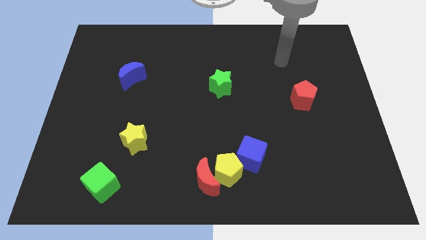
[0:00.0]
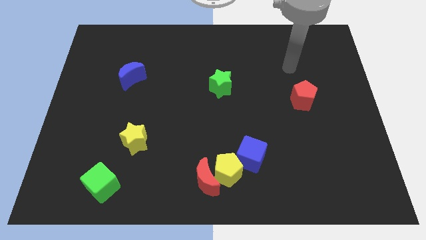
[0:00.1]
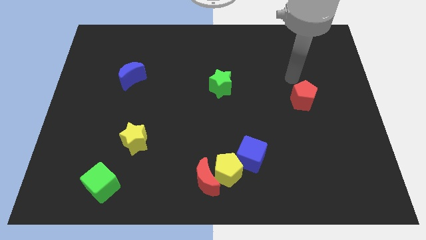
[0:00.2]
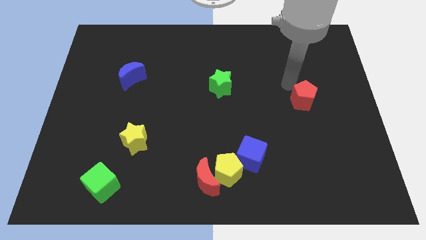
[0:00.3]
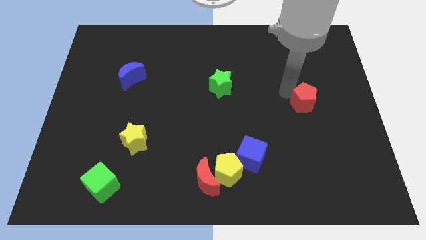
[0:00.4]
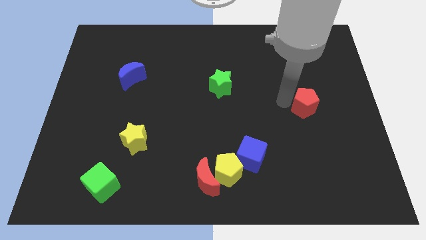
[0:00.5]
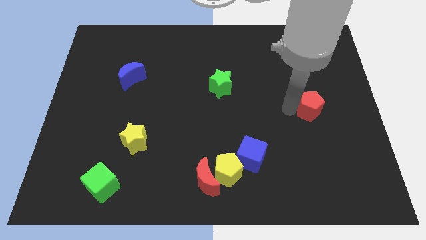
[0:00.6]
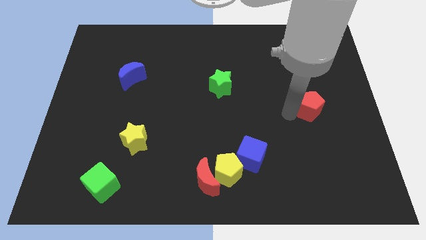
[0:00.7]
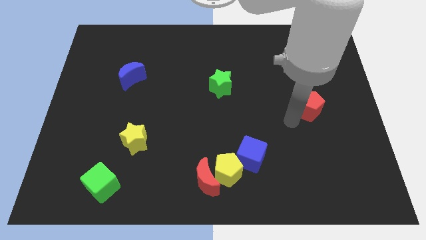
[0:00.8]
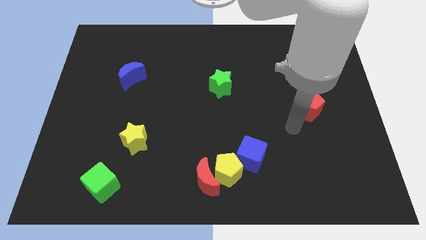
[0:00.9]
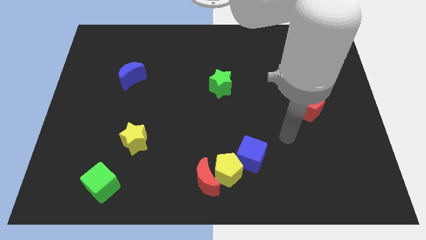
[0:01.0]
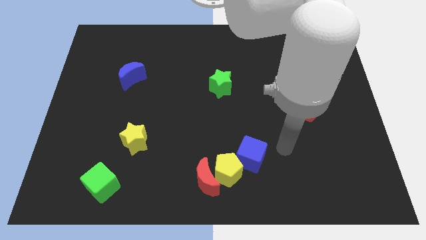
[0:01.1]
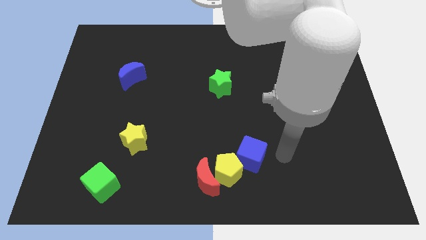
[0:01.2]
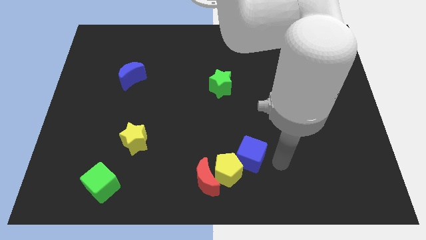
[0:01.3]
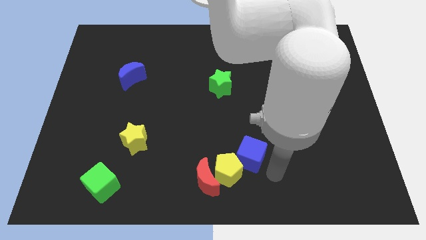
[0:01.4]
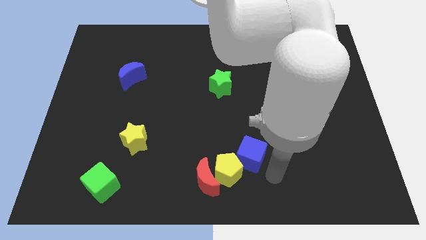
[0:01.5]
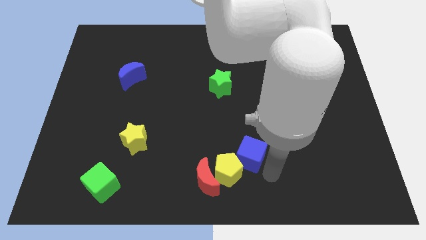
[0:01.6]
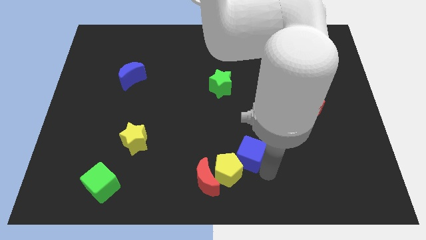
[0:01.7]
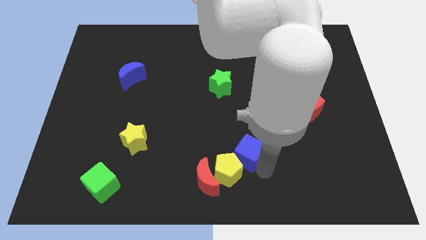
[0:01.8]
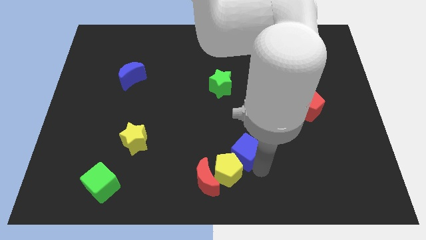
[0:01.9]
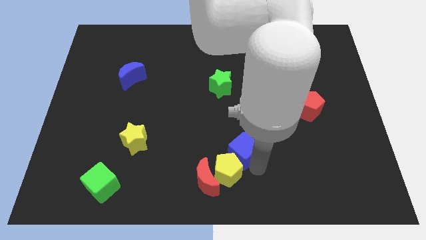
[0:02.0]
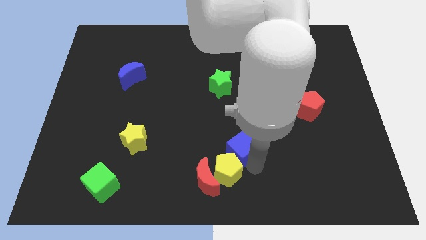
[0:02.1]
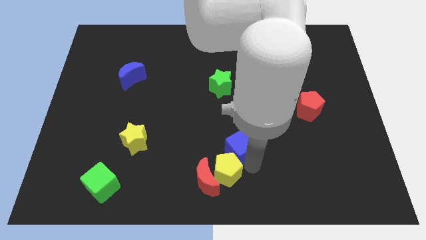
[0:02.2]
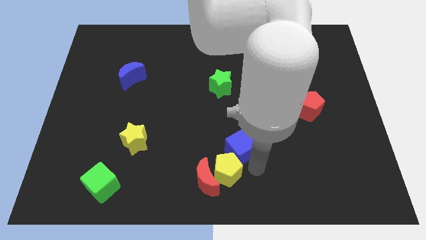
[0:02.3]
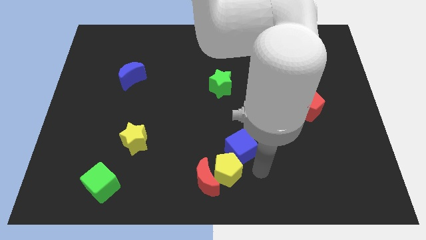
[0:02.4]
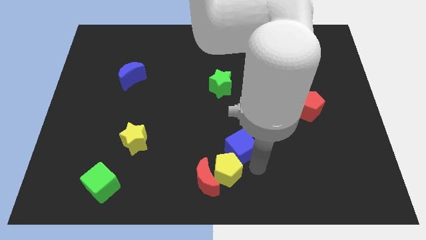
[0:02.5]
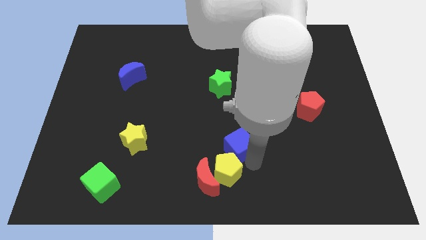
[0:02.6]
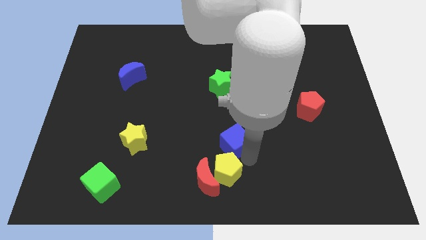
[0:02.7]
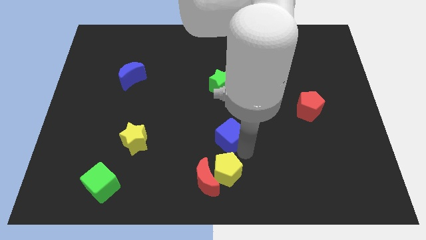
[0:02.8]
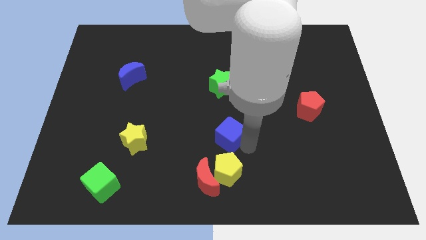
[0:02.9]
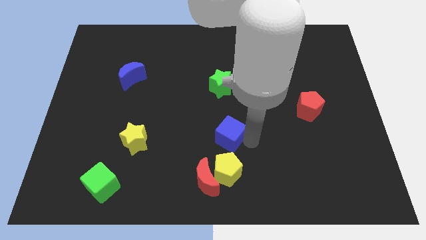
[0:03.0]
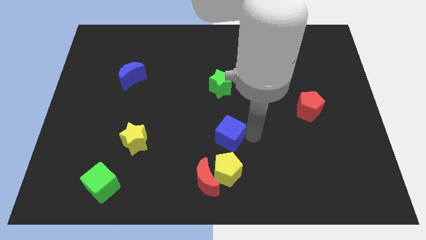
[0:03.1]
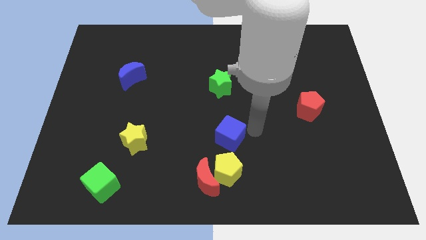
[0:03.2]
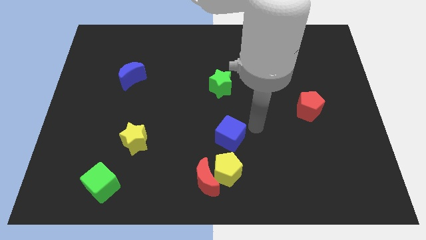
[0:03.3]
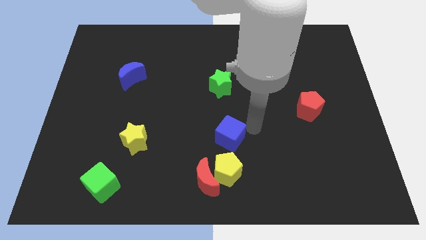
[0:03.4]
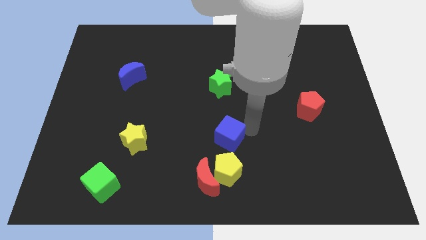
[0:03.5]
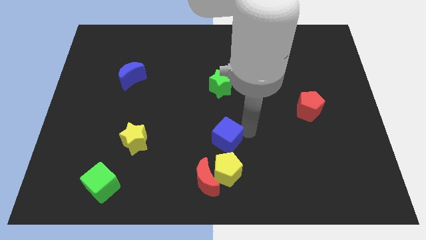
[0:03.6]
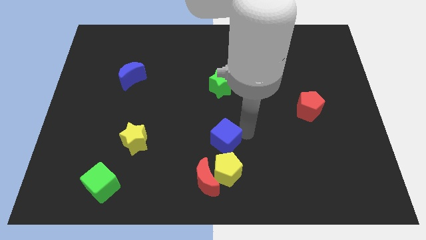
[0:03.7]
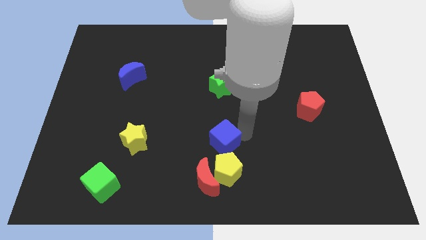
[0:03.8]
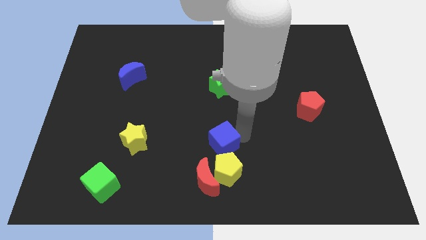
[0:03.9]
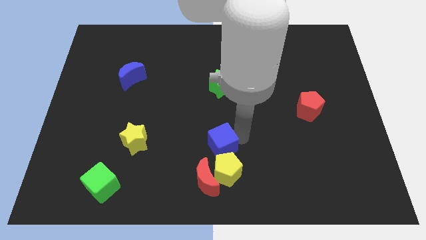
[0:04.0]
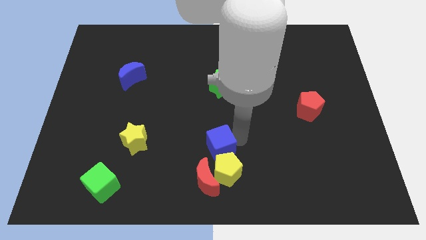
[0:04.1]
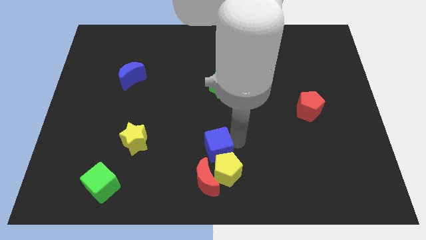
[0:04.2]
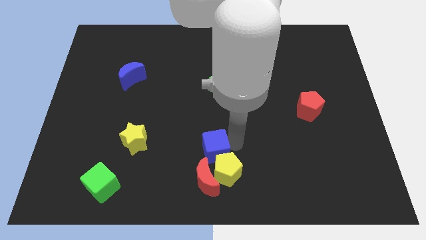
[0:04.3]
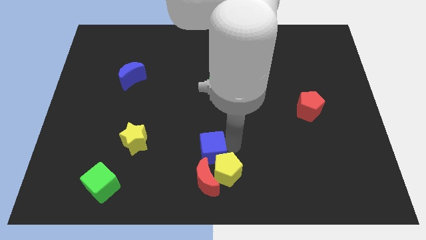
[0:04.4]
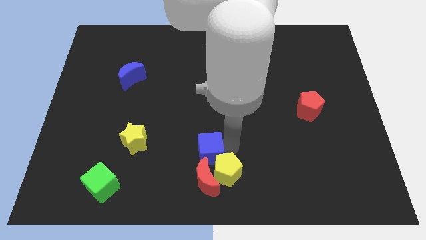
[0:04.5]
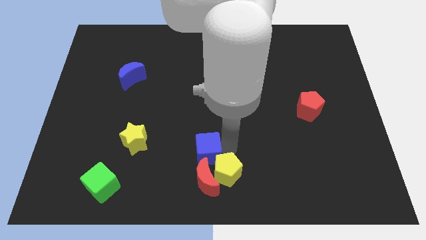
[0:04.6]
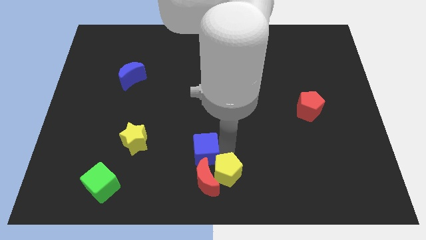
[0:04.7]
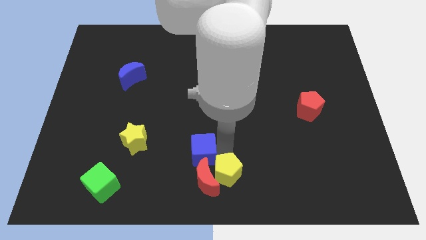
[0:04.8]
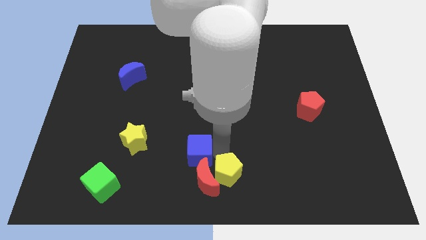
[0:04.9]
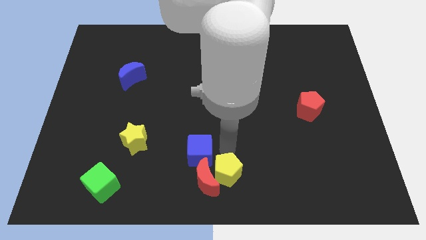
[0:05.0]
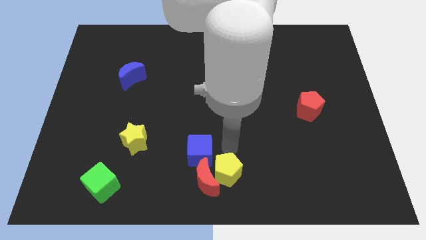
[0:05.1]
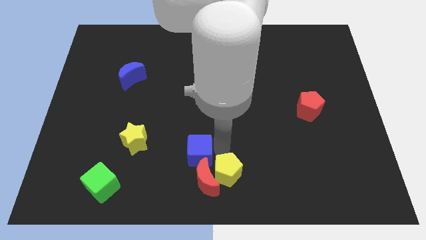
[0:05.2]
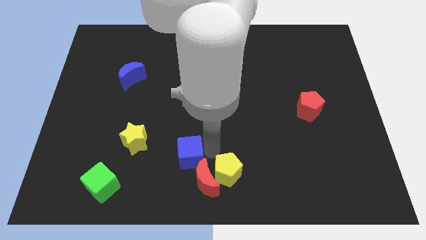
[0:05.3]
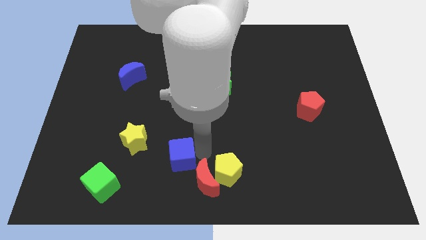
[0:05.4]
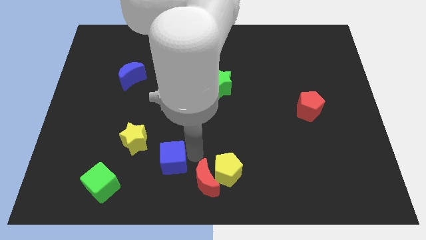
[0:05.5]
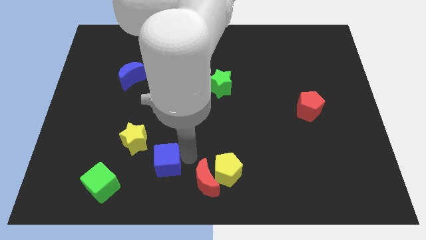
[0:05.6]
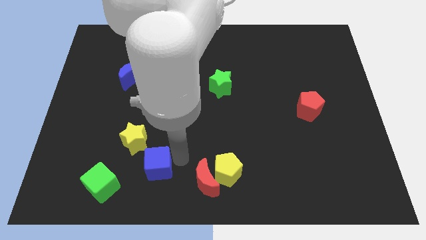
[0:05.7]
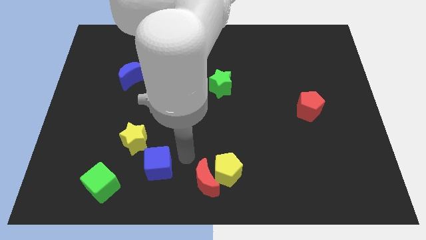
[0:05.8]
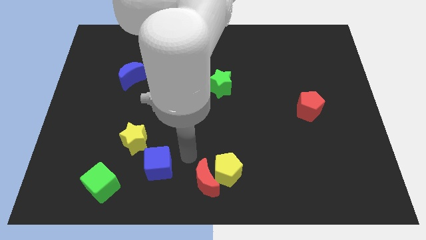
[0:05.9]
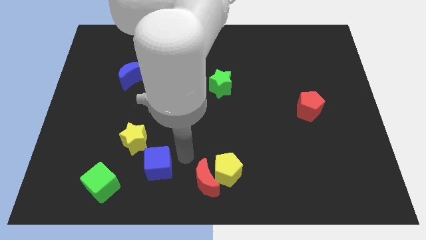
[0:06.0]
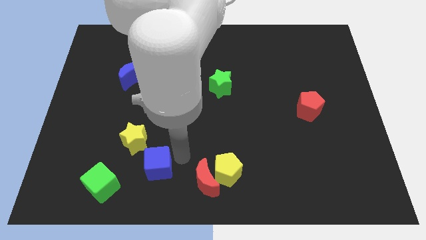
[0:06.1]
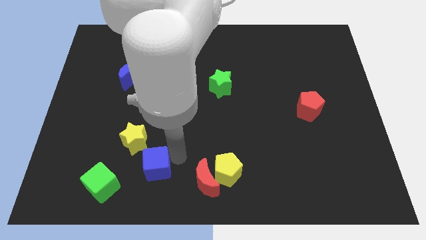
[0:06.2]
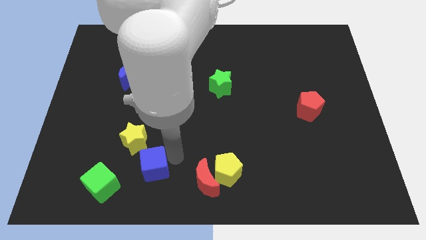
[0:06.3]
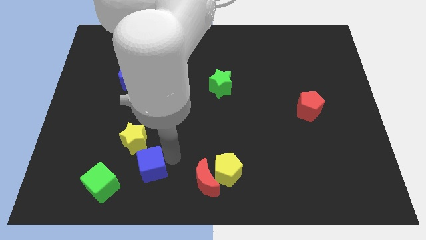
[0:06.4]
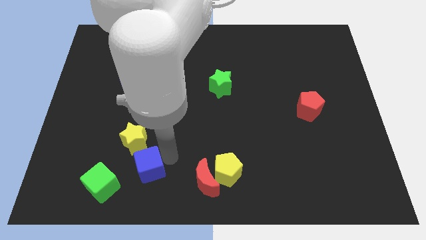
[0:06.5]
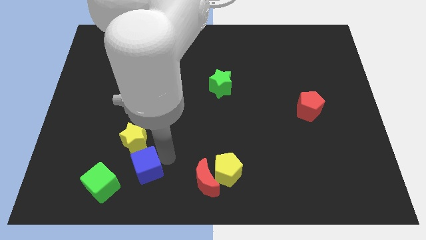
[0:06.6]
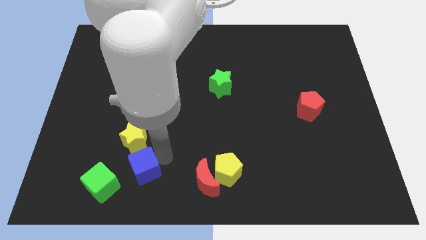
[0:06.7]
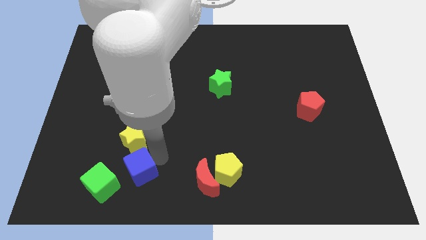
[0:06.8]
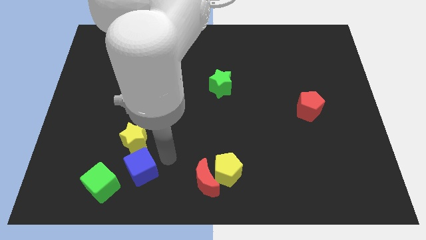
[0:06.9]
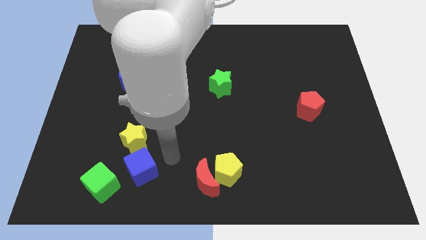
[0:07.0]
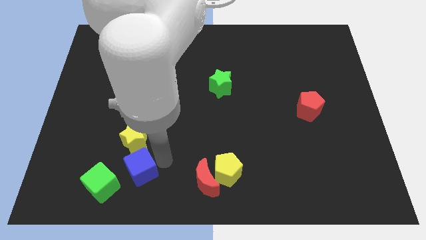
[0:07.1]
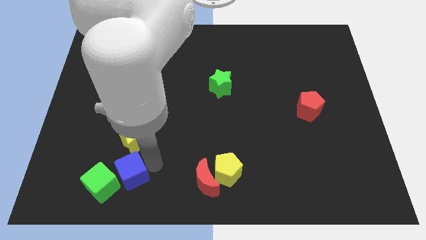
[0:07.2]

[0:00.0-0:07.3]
slide the blue cube close to the green cube
